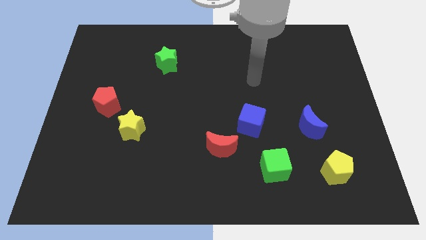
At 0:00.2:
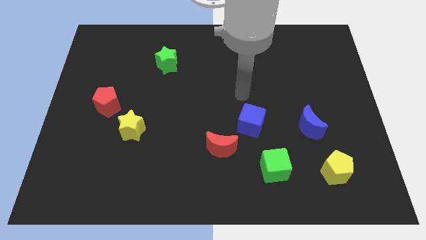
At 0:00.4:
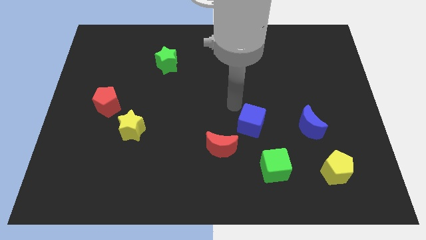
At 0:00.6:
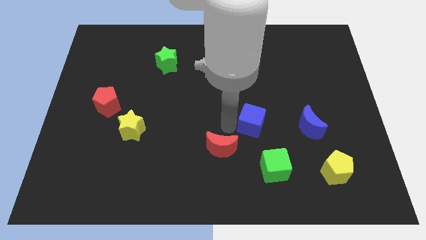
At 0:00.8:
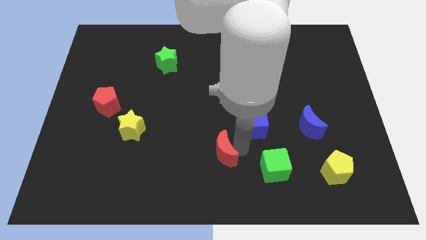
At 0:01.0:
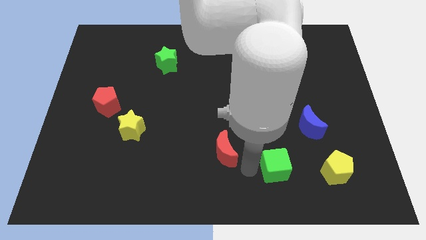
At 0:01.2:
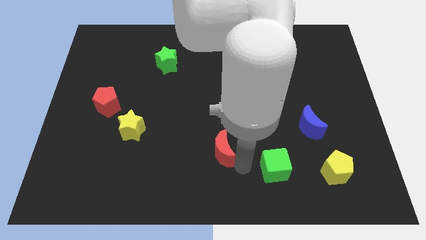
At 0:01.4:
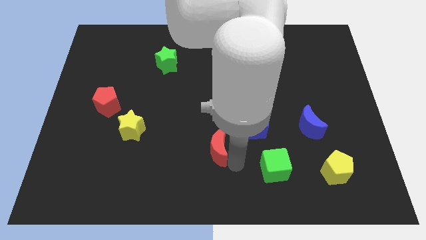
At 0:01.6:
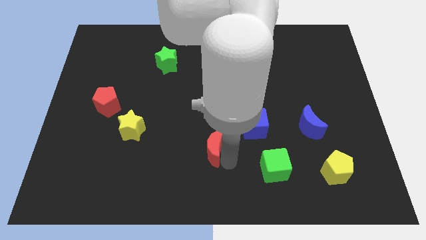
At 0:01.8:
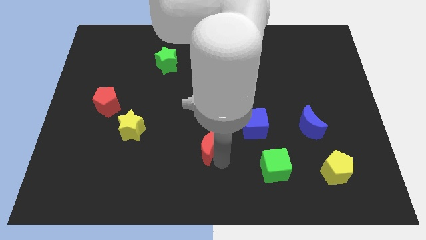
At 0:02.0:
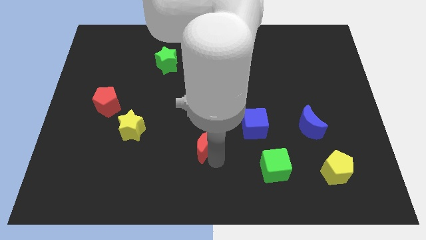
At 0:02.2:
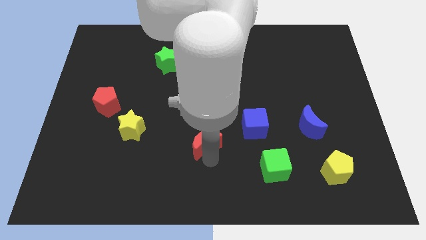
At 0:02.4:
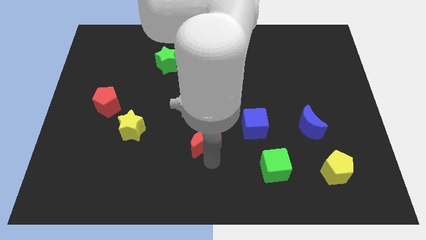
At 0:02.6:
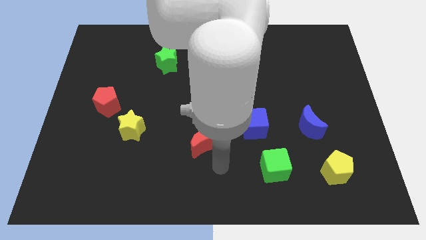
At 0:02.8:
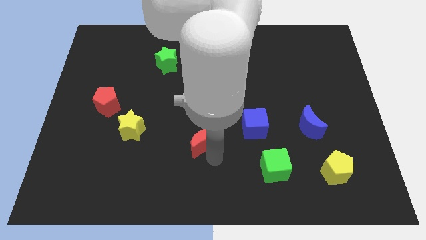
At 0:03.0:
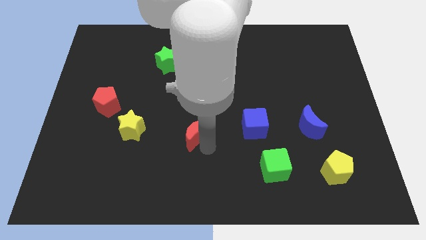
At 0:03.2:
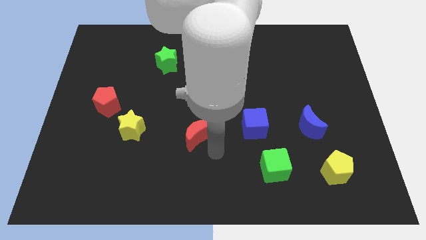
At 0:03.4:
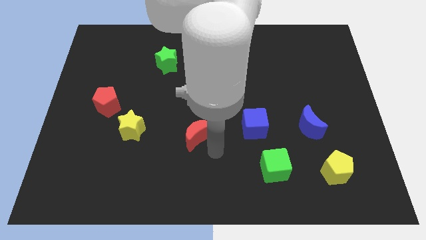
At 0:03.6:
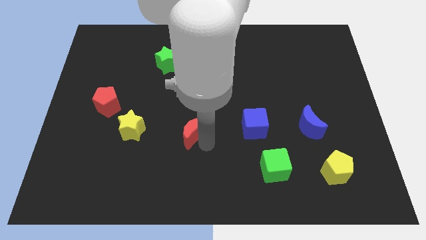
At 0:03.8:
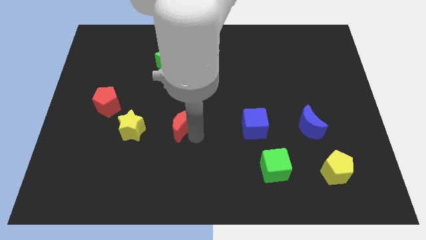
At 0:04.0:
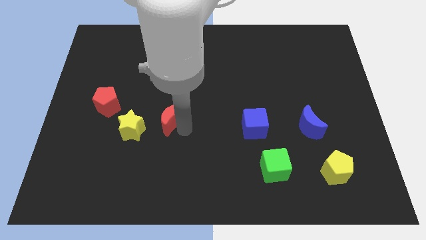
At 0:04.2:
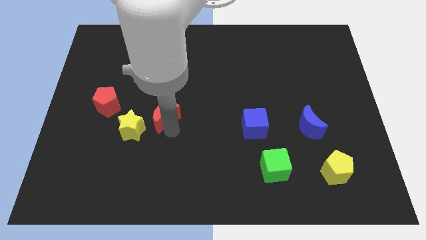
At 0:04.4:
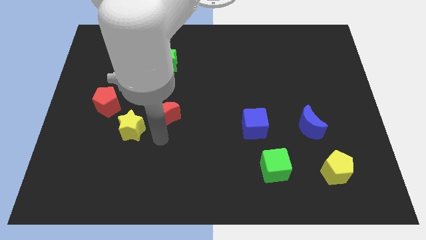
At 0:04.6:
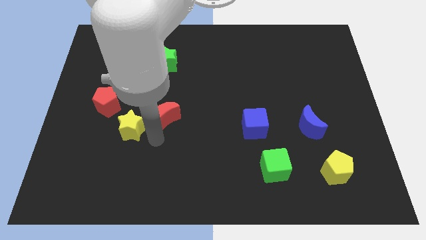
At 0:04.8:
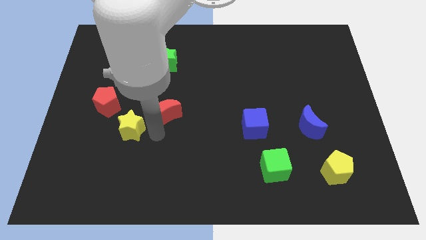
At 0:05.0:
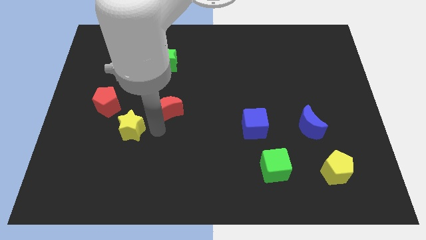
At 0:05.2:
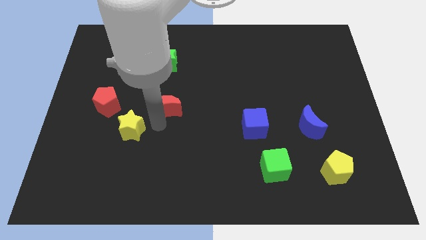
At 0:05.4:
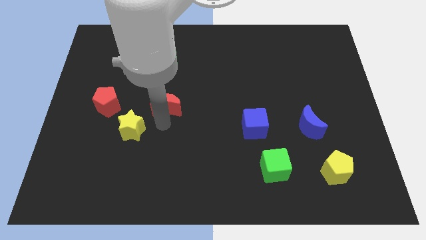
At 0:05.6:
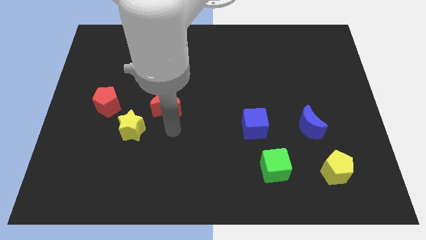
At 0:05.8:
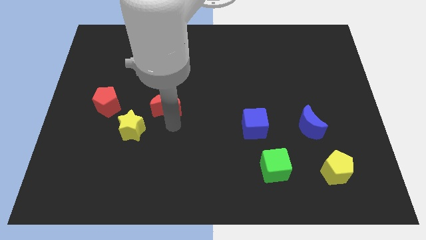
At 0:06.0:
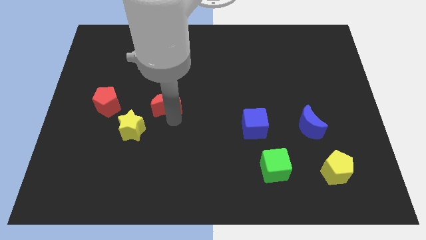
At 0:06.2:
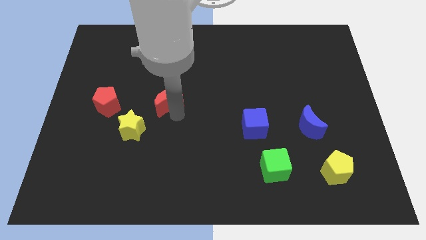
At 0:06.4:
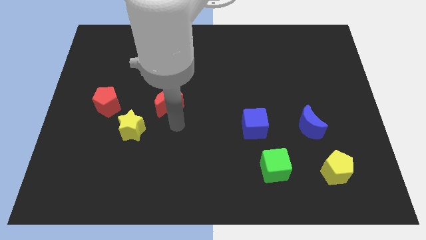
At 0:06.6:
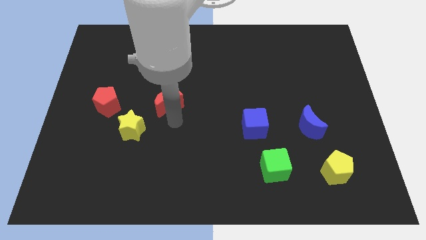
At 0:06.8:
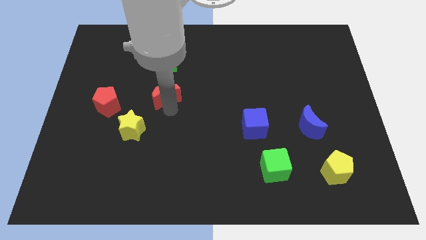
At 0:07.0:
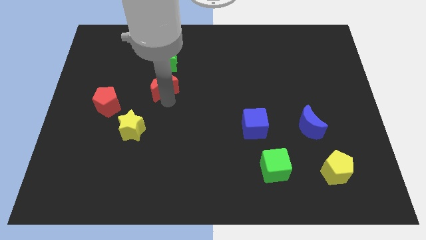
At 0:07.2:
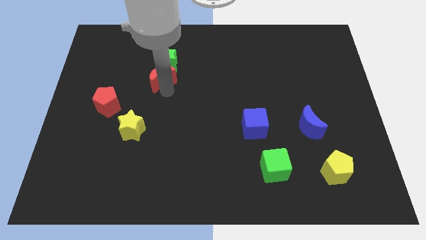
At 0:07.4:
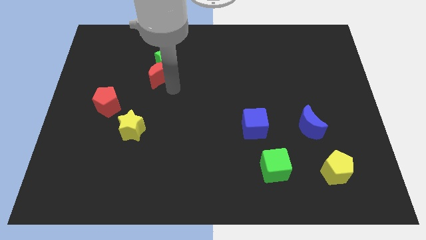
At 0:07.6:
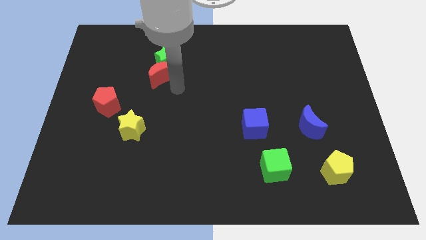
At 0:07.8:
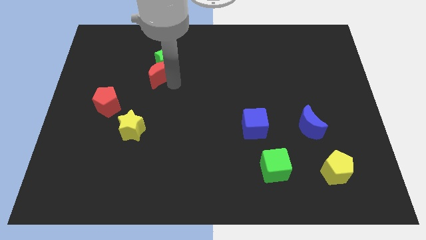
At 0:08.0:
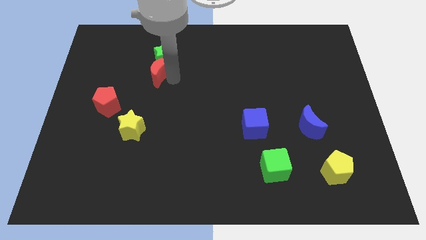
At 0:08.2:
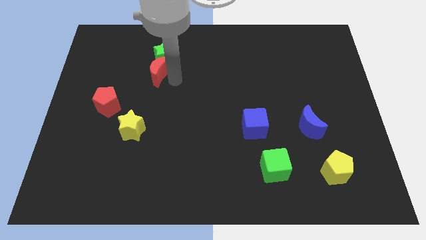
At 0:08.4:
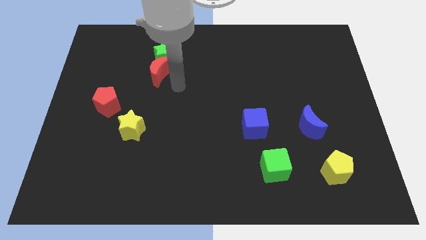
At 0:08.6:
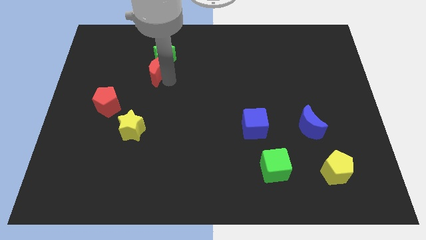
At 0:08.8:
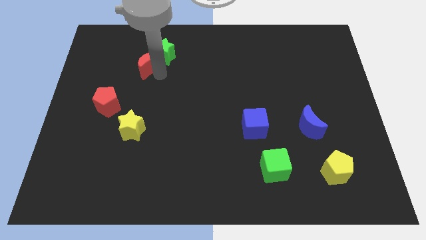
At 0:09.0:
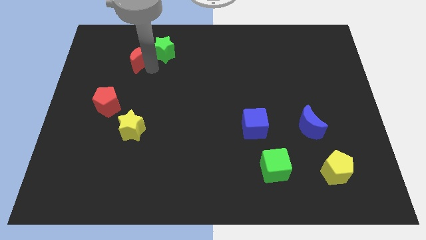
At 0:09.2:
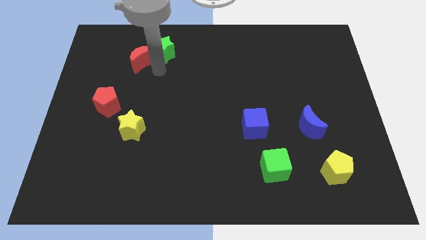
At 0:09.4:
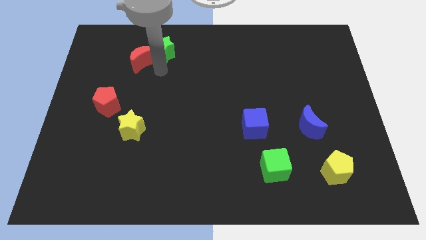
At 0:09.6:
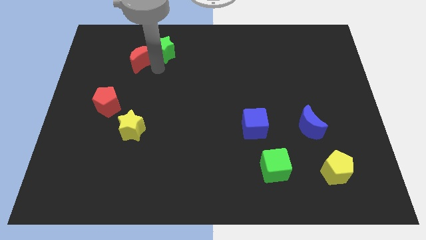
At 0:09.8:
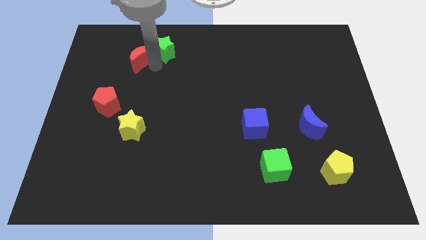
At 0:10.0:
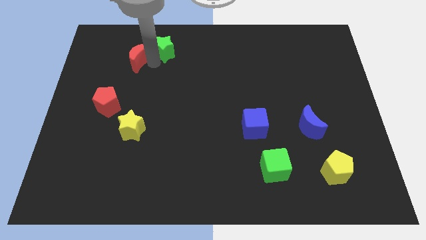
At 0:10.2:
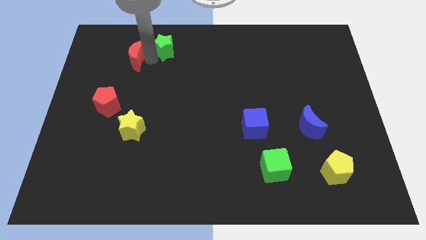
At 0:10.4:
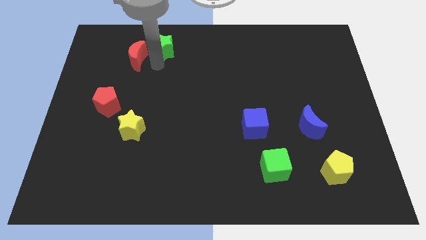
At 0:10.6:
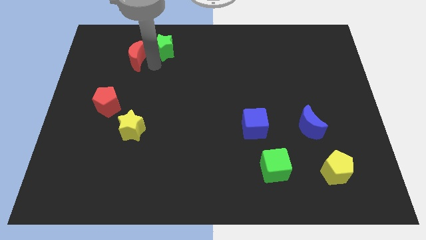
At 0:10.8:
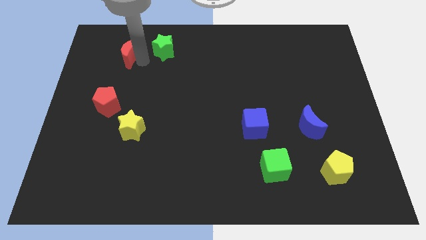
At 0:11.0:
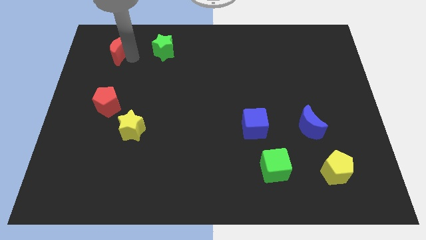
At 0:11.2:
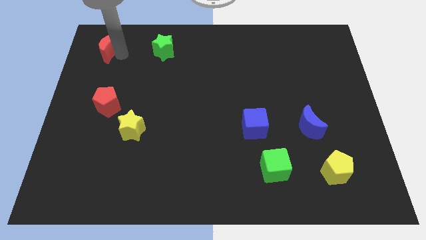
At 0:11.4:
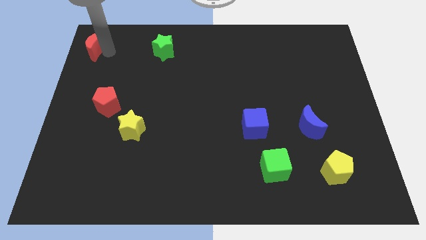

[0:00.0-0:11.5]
push the red moon to the top left corner
